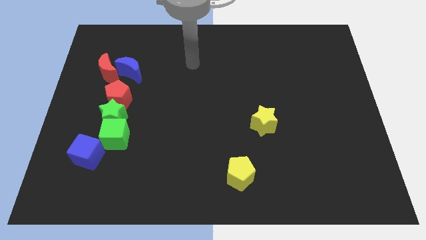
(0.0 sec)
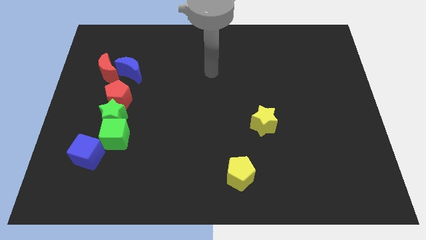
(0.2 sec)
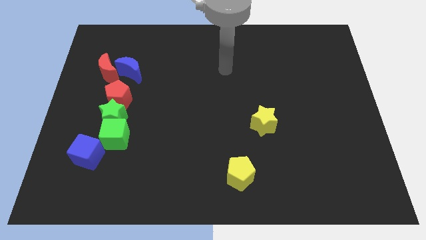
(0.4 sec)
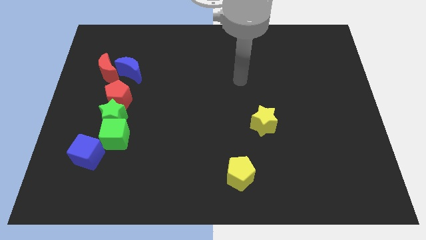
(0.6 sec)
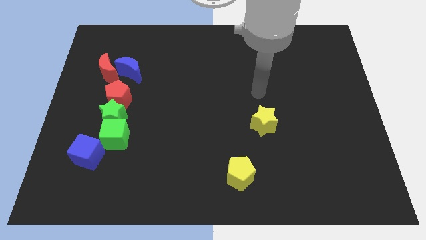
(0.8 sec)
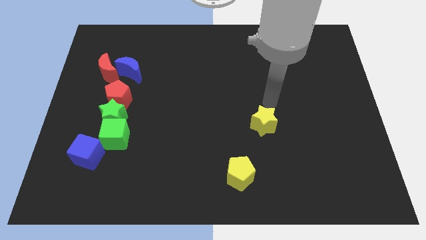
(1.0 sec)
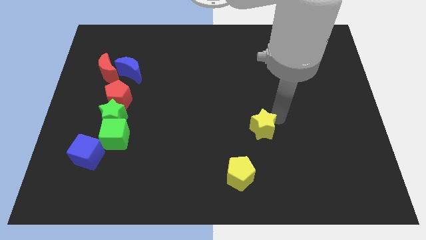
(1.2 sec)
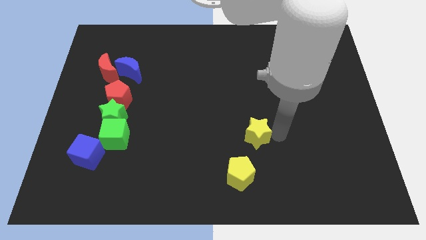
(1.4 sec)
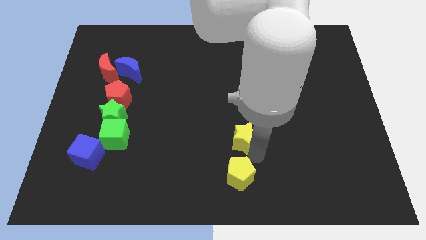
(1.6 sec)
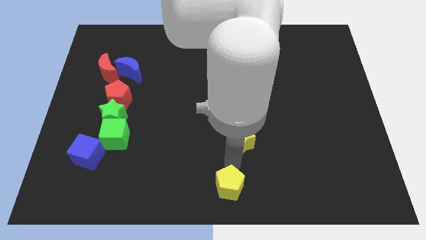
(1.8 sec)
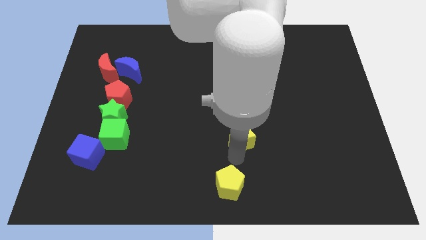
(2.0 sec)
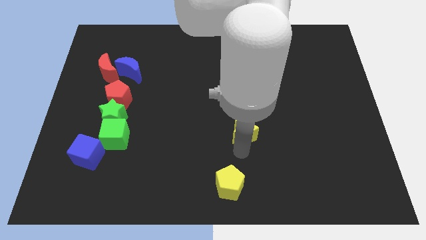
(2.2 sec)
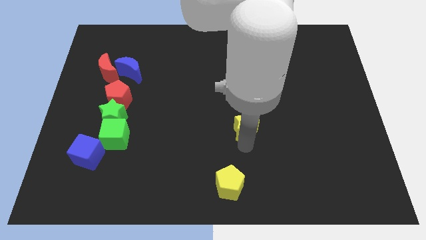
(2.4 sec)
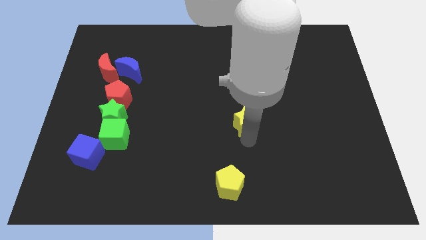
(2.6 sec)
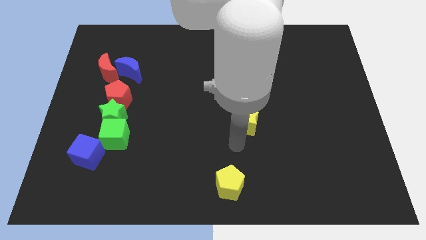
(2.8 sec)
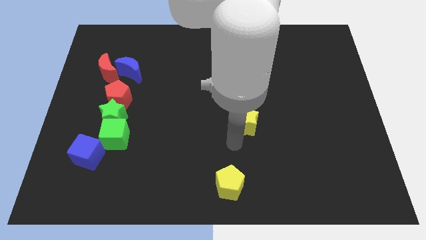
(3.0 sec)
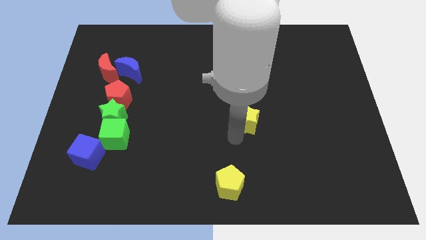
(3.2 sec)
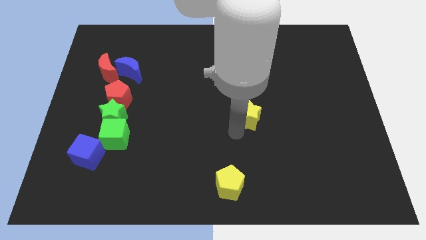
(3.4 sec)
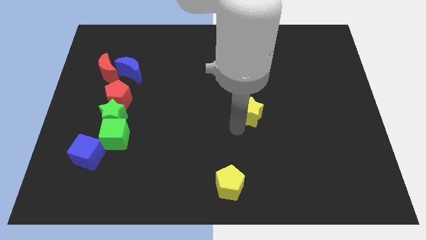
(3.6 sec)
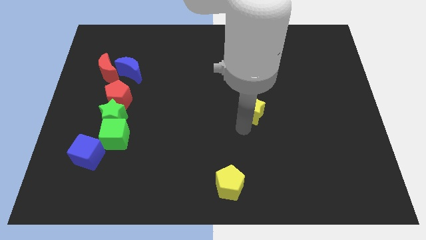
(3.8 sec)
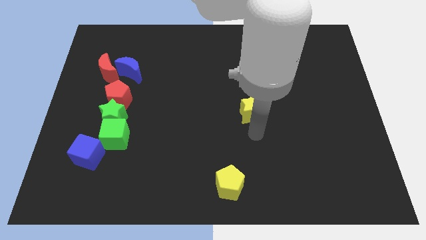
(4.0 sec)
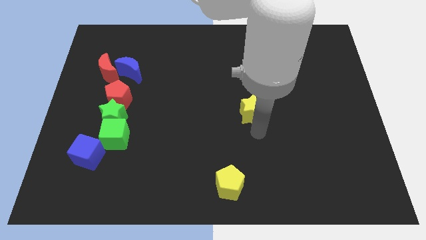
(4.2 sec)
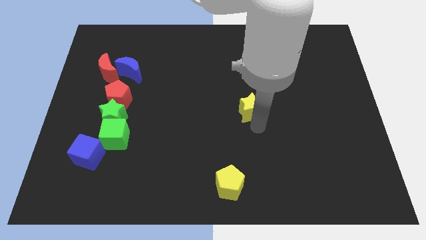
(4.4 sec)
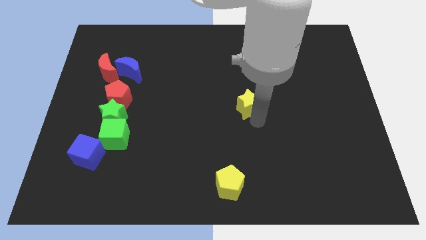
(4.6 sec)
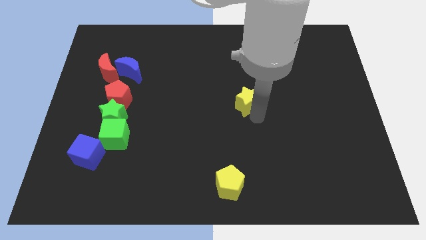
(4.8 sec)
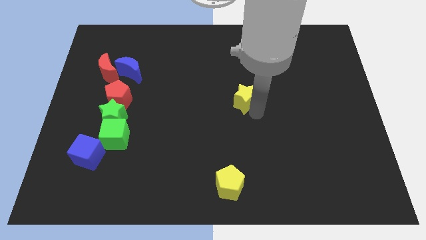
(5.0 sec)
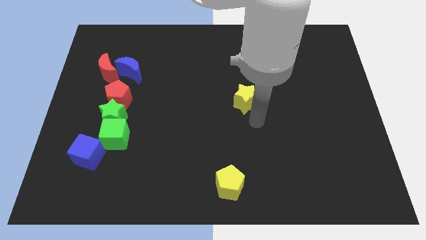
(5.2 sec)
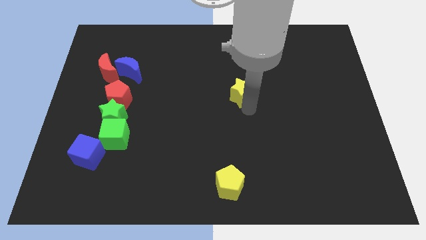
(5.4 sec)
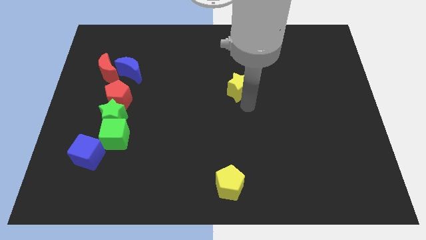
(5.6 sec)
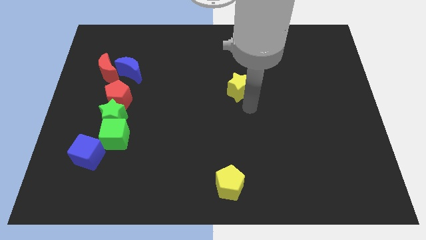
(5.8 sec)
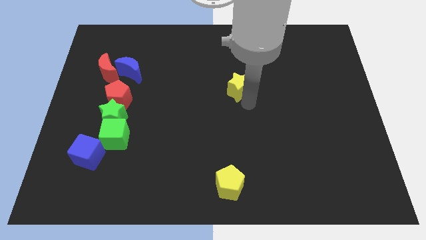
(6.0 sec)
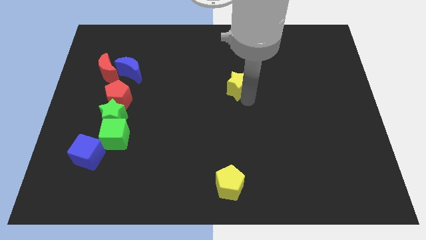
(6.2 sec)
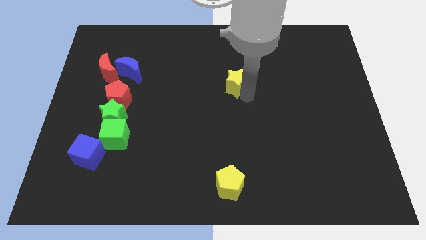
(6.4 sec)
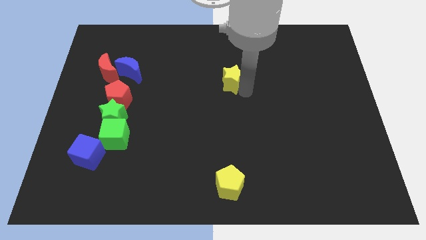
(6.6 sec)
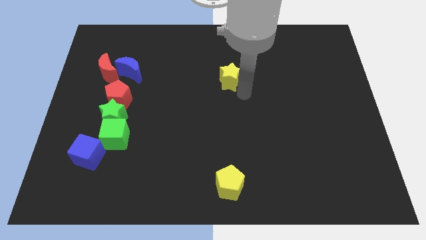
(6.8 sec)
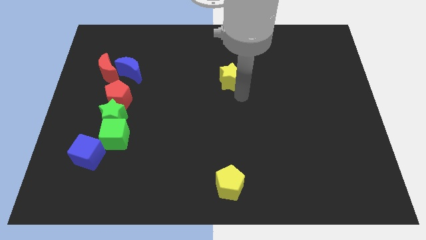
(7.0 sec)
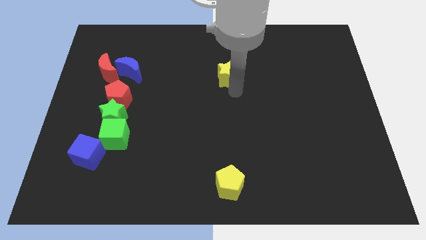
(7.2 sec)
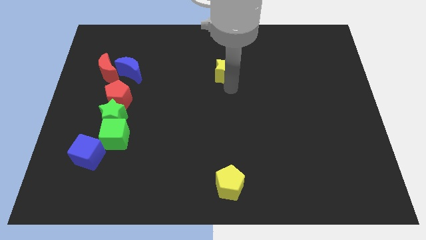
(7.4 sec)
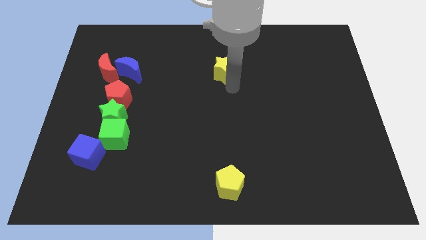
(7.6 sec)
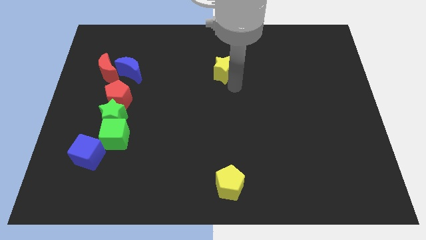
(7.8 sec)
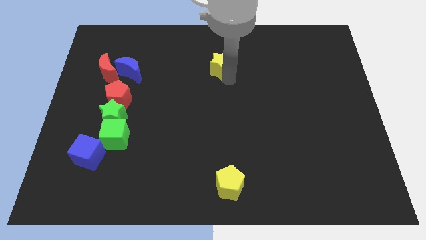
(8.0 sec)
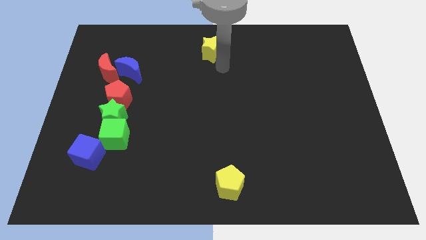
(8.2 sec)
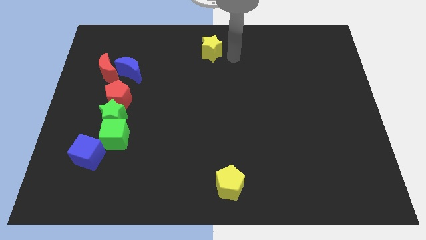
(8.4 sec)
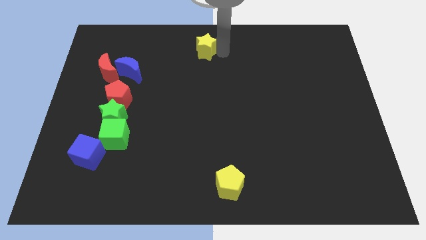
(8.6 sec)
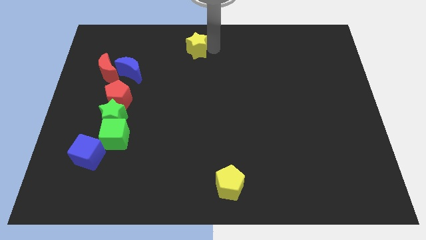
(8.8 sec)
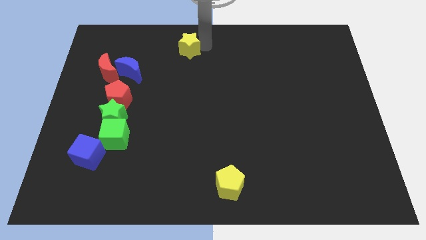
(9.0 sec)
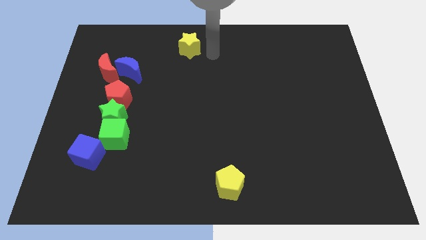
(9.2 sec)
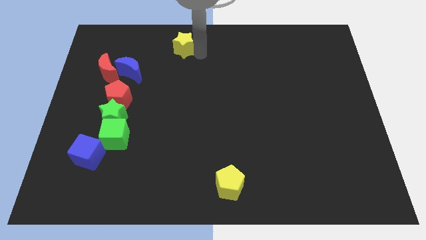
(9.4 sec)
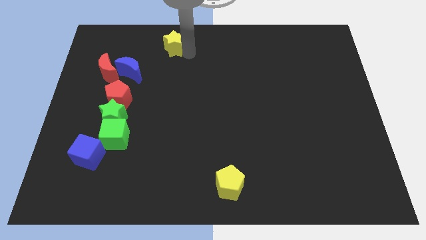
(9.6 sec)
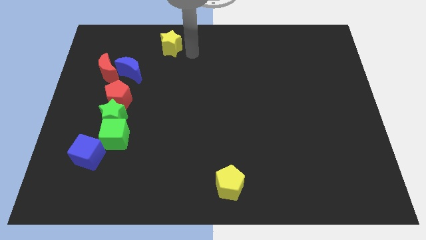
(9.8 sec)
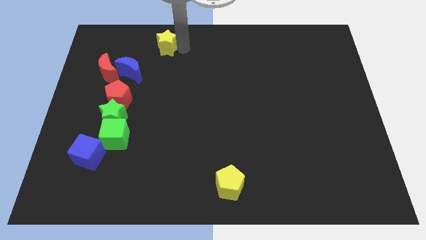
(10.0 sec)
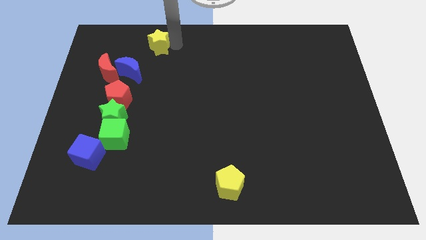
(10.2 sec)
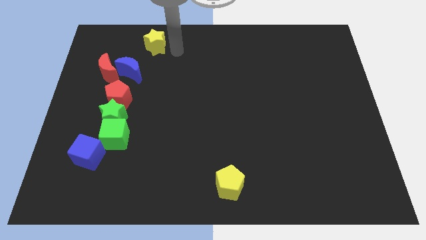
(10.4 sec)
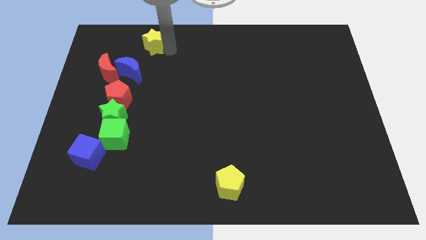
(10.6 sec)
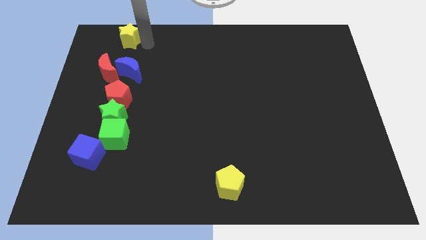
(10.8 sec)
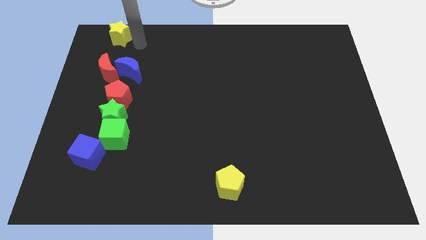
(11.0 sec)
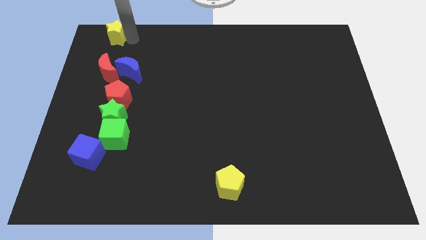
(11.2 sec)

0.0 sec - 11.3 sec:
push the yellow star to the top left

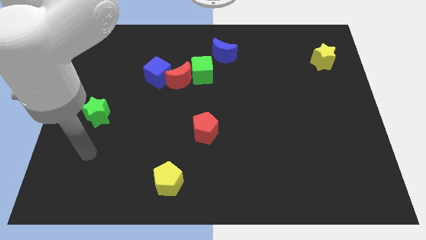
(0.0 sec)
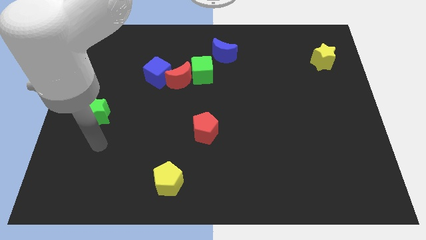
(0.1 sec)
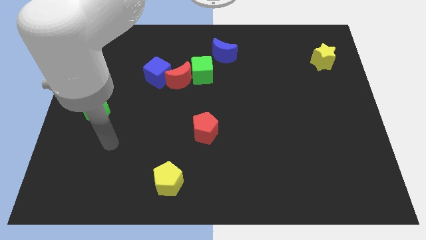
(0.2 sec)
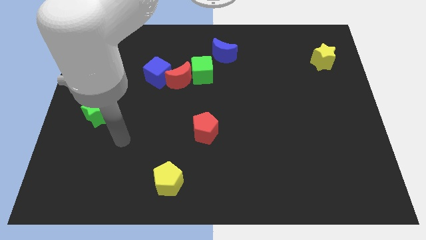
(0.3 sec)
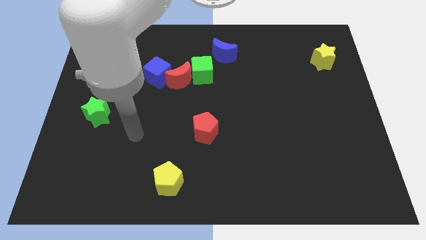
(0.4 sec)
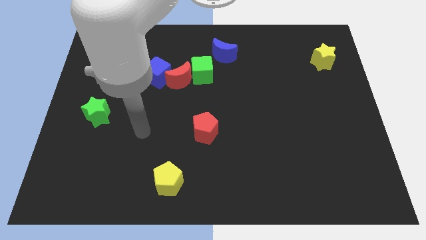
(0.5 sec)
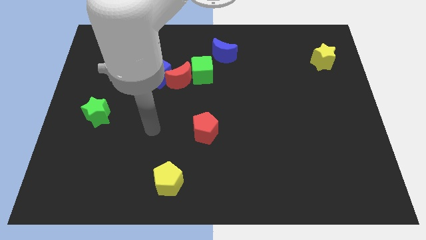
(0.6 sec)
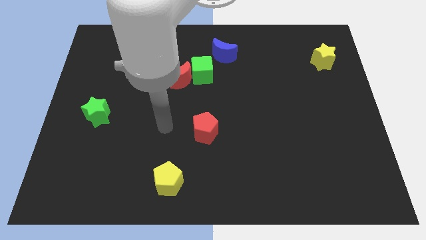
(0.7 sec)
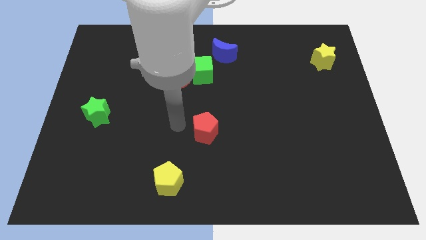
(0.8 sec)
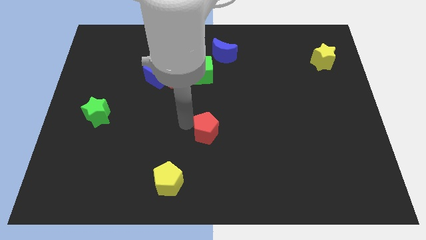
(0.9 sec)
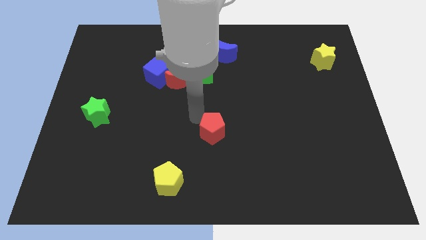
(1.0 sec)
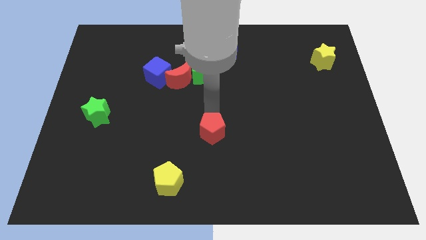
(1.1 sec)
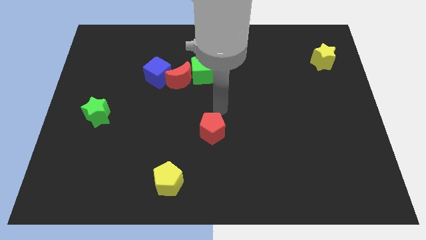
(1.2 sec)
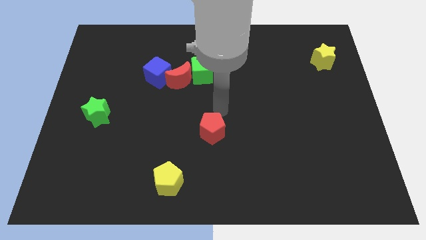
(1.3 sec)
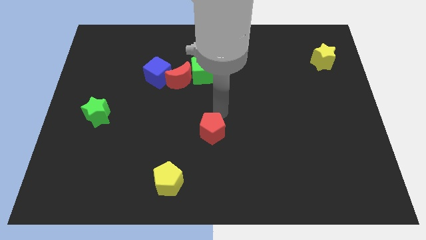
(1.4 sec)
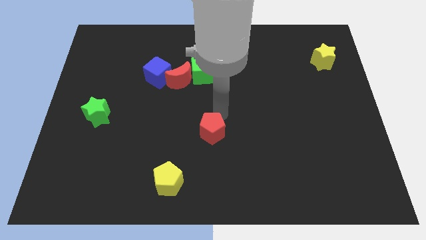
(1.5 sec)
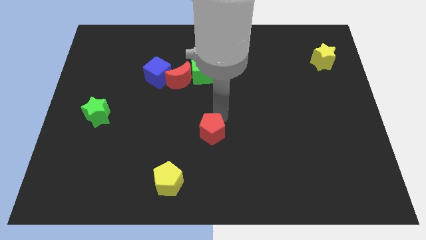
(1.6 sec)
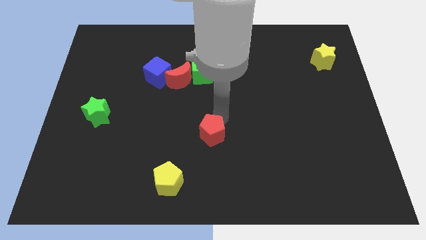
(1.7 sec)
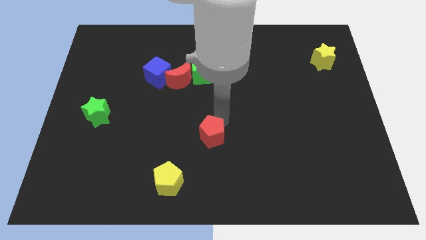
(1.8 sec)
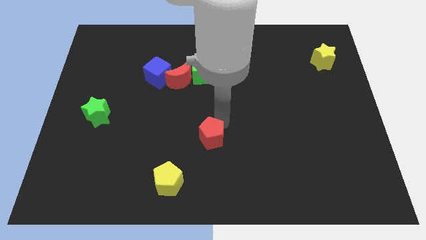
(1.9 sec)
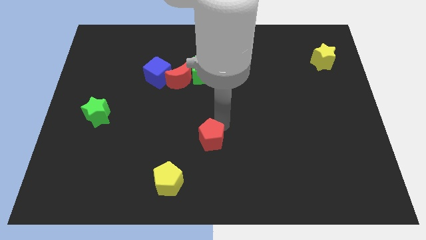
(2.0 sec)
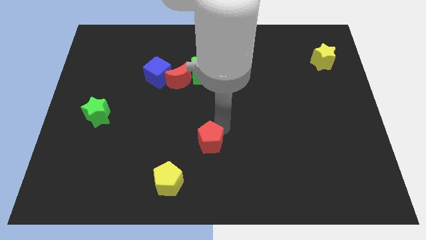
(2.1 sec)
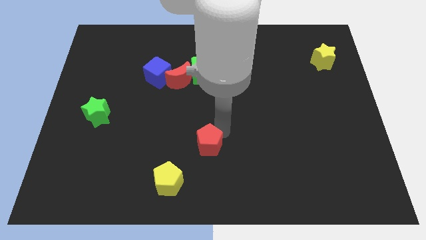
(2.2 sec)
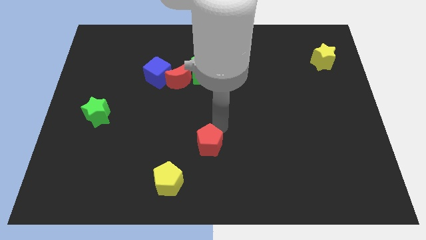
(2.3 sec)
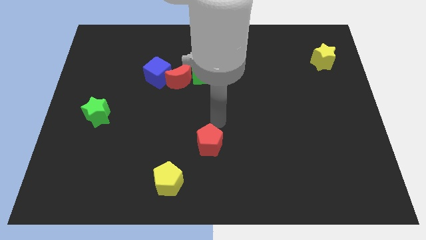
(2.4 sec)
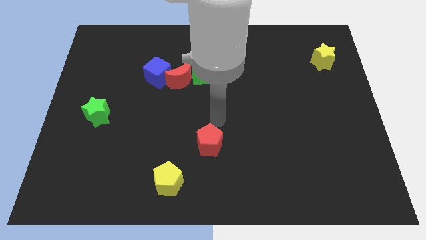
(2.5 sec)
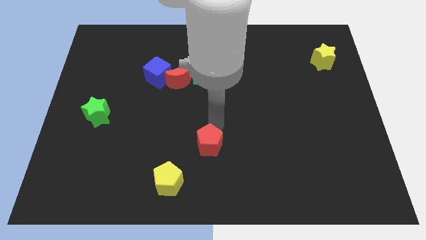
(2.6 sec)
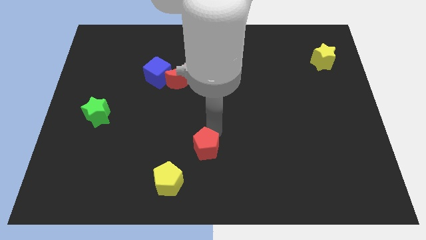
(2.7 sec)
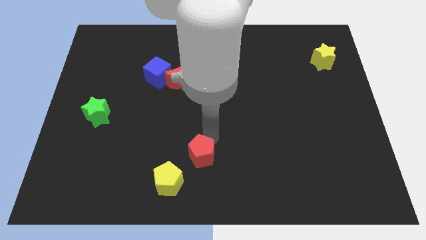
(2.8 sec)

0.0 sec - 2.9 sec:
move the red pentagon to the bottom side
